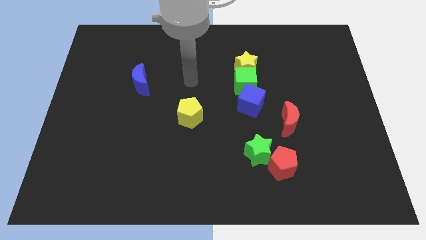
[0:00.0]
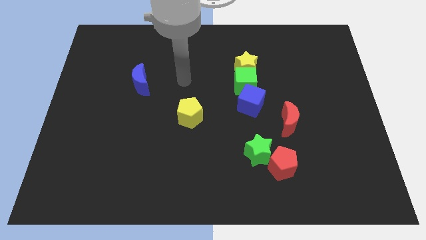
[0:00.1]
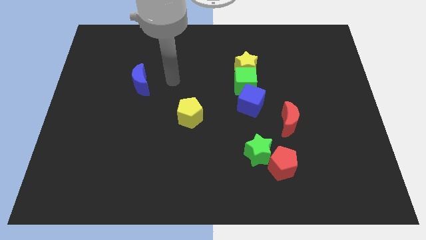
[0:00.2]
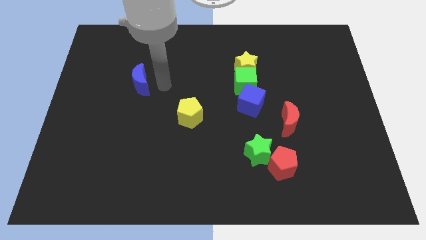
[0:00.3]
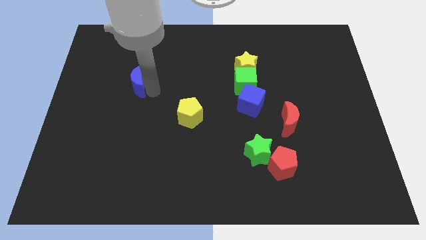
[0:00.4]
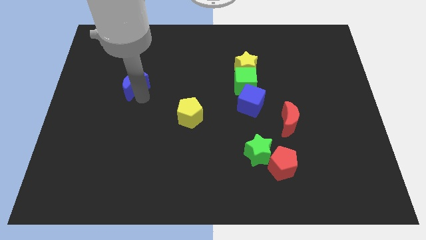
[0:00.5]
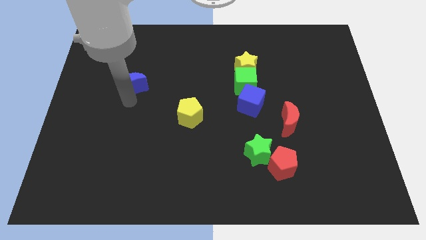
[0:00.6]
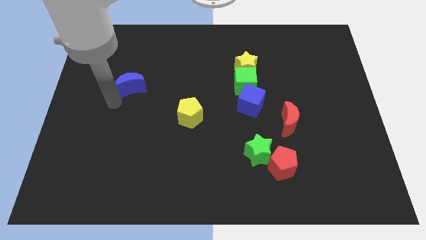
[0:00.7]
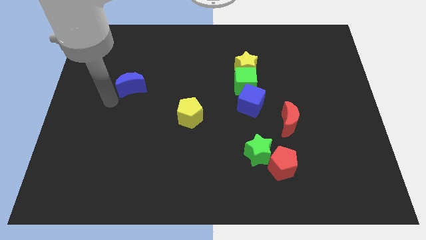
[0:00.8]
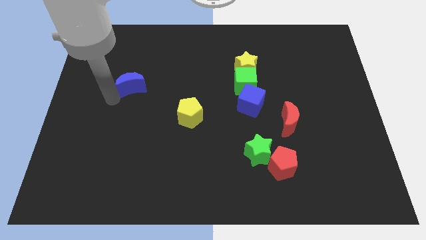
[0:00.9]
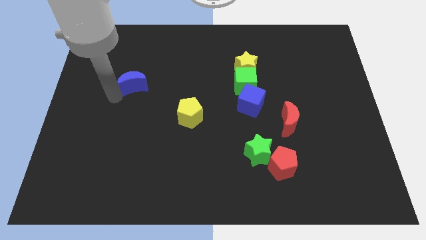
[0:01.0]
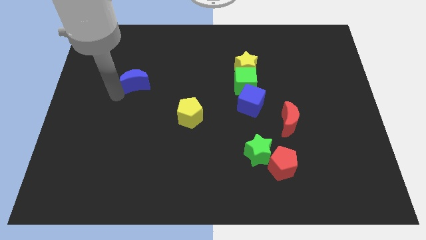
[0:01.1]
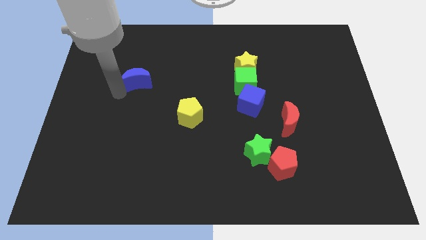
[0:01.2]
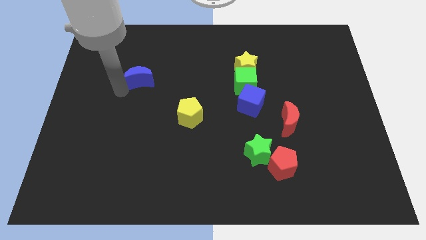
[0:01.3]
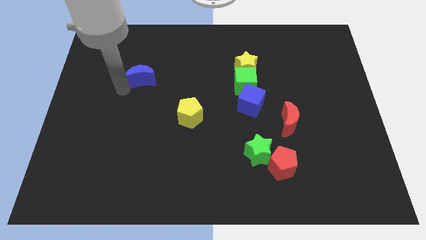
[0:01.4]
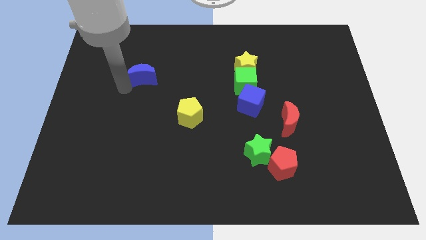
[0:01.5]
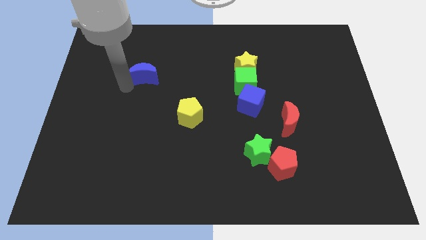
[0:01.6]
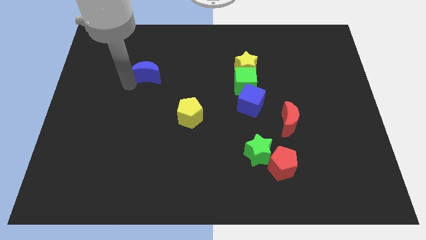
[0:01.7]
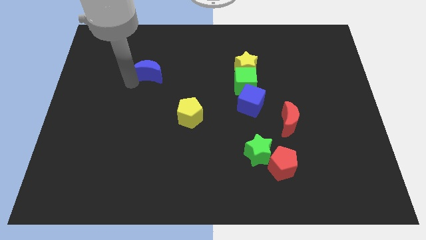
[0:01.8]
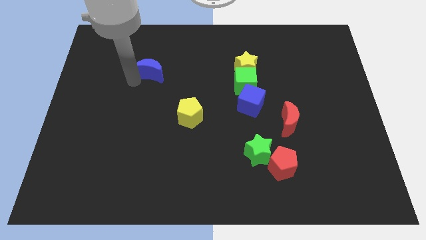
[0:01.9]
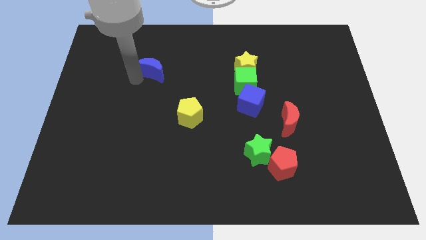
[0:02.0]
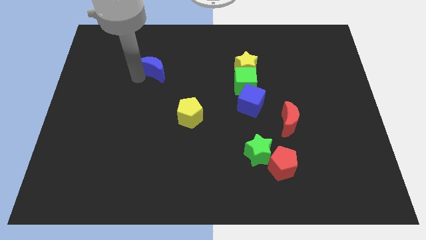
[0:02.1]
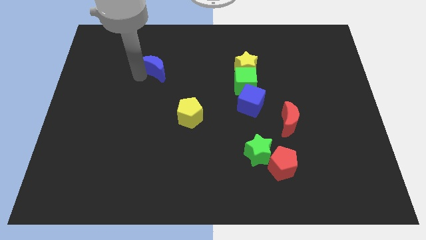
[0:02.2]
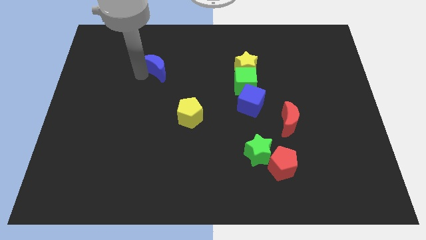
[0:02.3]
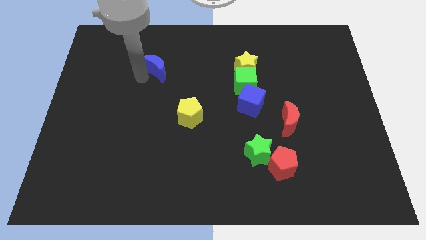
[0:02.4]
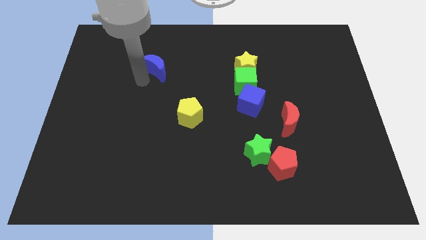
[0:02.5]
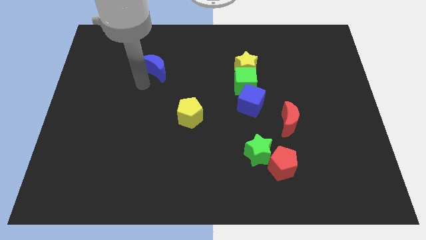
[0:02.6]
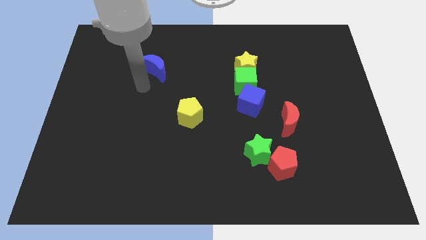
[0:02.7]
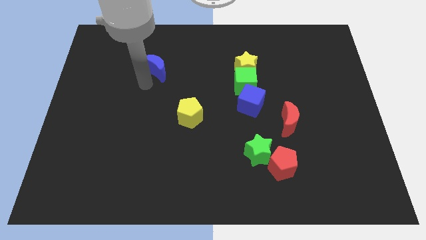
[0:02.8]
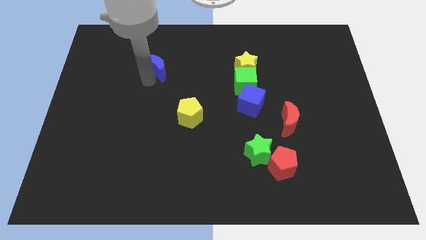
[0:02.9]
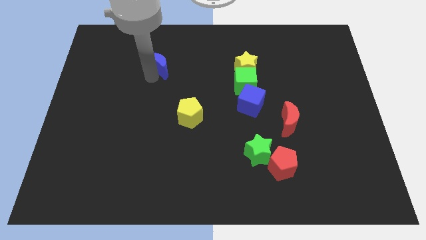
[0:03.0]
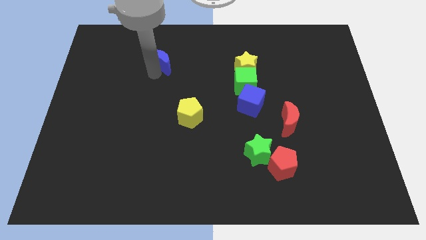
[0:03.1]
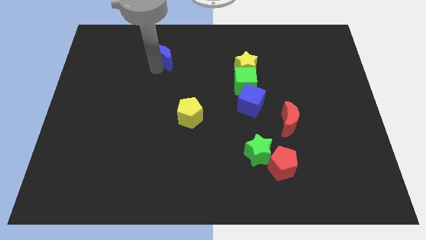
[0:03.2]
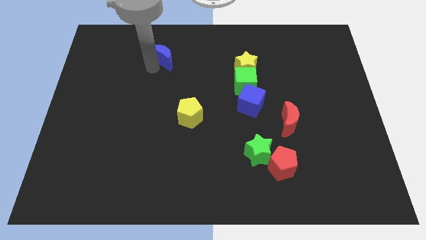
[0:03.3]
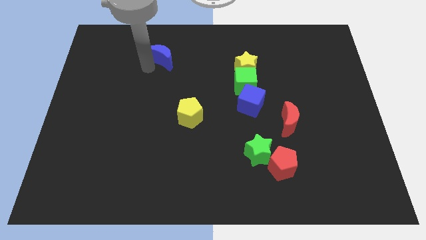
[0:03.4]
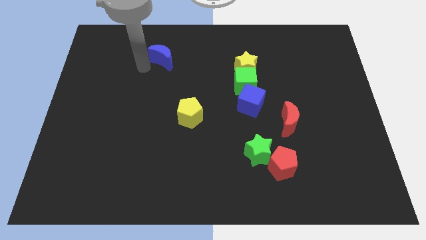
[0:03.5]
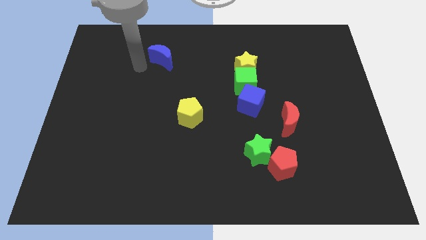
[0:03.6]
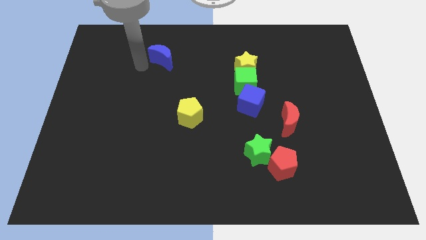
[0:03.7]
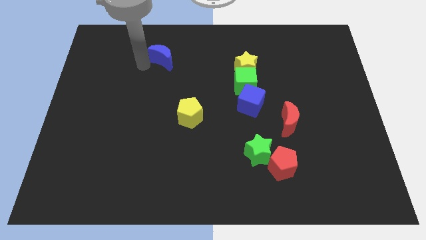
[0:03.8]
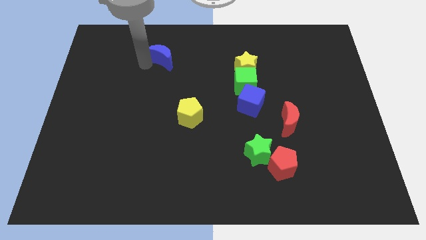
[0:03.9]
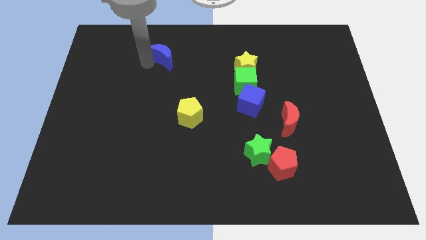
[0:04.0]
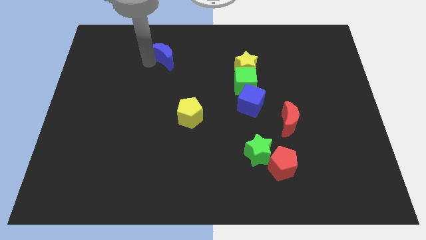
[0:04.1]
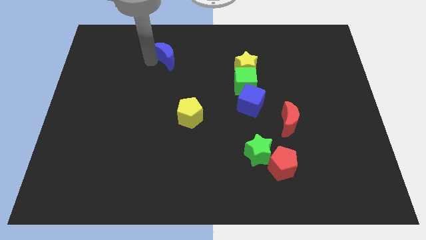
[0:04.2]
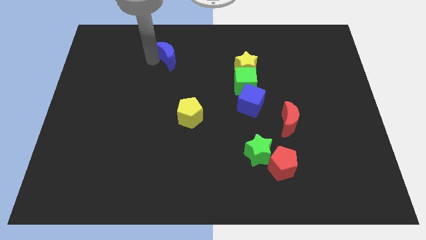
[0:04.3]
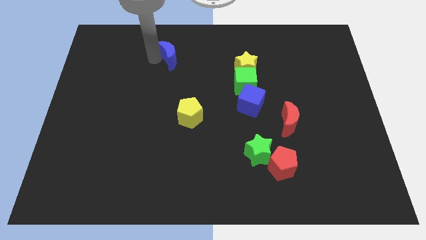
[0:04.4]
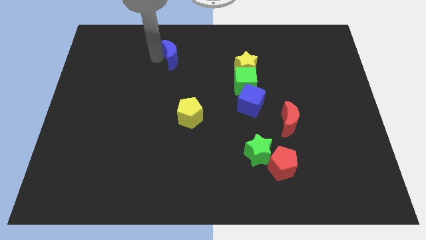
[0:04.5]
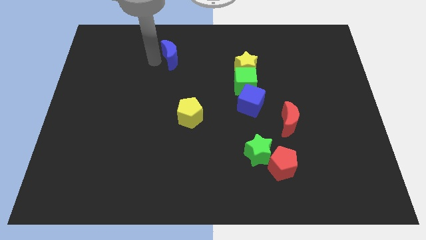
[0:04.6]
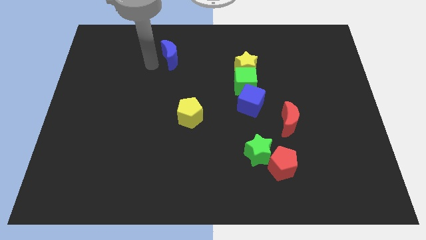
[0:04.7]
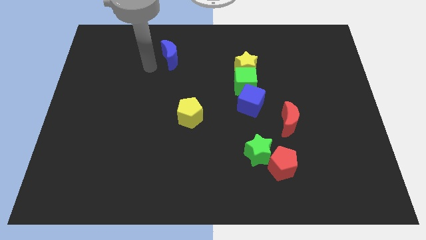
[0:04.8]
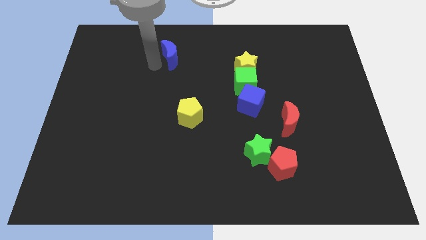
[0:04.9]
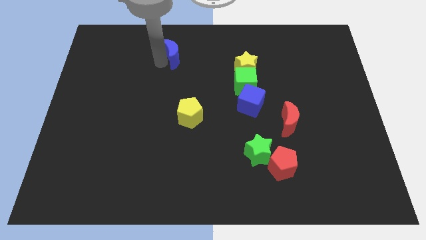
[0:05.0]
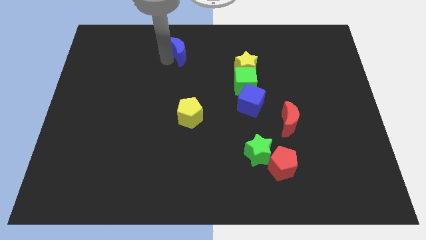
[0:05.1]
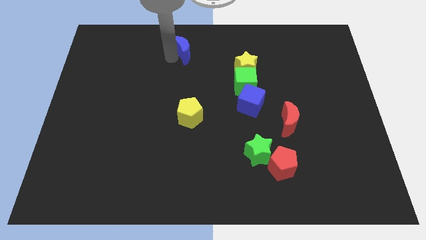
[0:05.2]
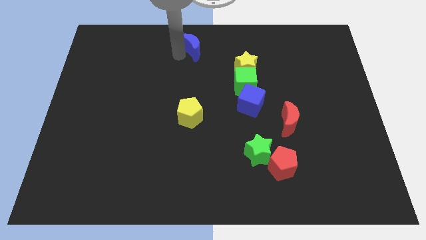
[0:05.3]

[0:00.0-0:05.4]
put the blue moon to the top

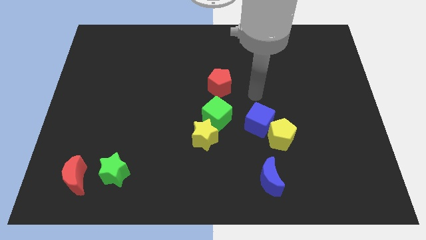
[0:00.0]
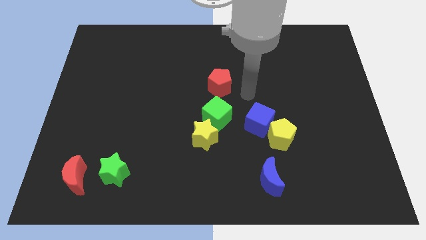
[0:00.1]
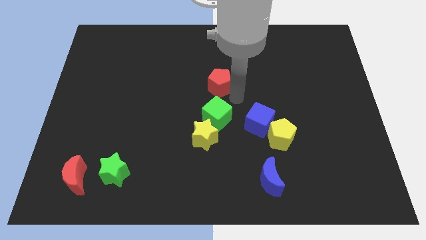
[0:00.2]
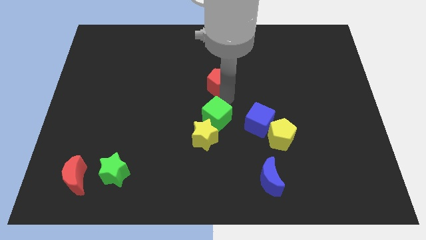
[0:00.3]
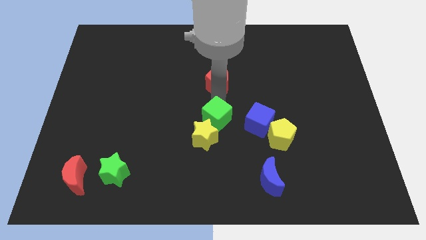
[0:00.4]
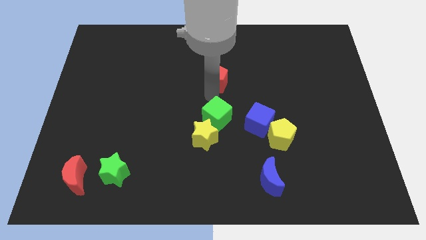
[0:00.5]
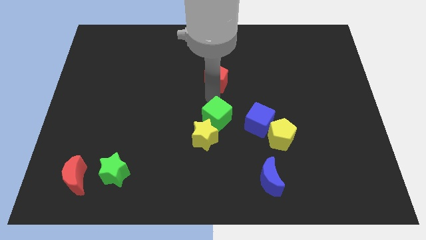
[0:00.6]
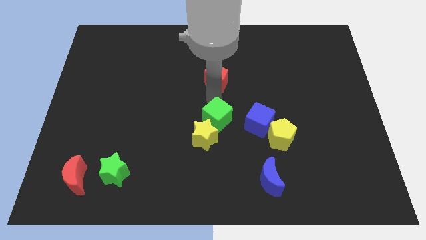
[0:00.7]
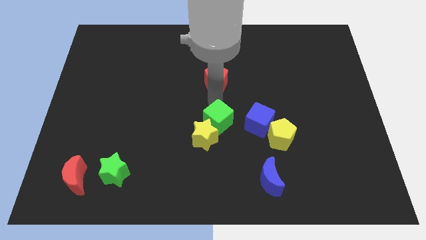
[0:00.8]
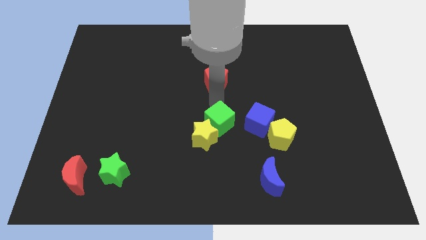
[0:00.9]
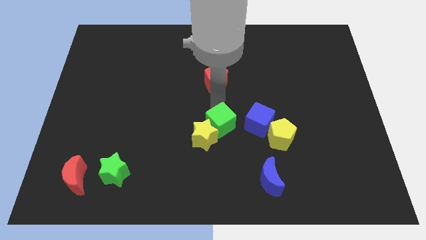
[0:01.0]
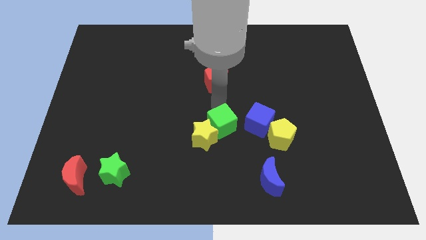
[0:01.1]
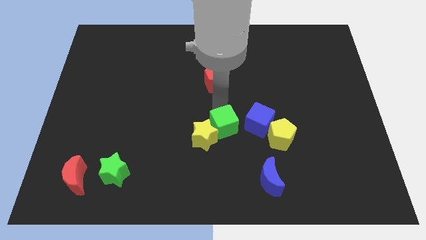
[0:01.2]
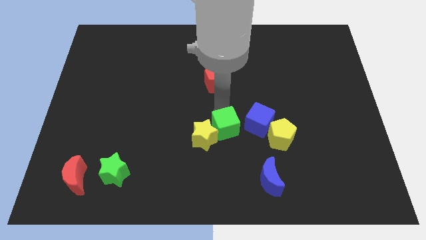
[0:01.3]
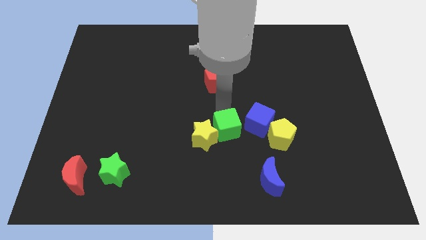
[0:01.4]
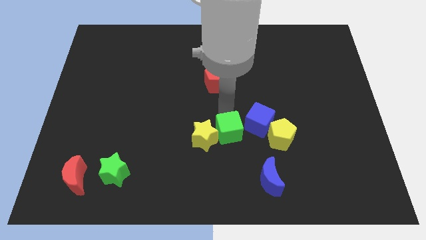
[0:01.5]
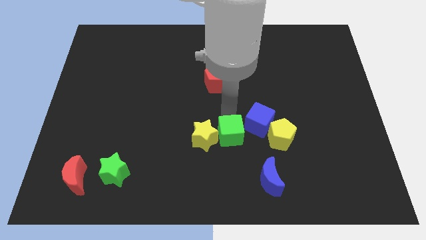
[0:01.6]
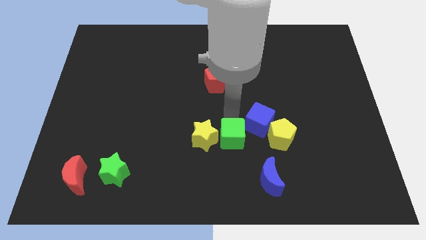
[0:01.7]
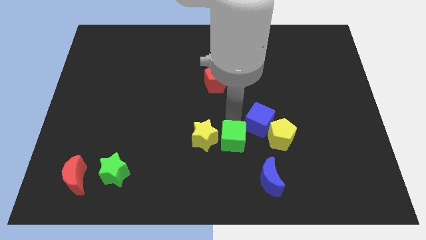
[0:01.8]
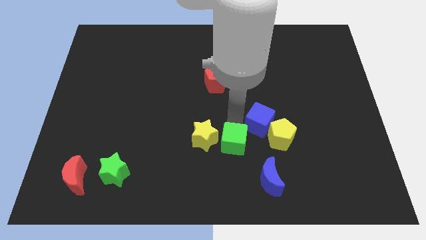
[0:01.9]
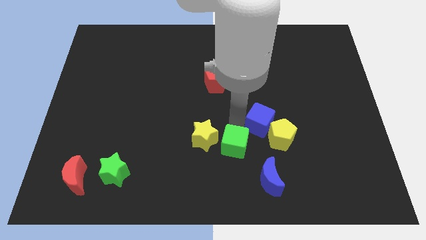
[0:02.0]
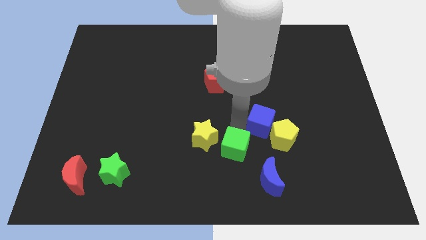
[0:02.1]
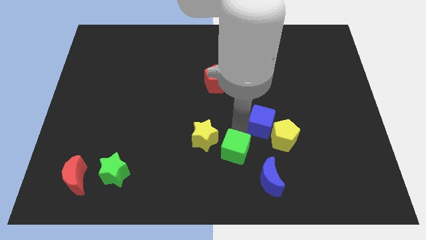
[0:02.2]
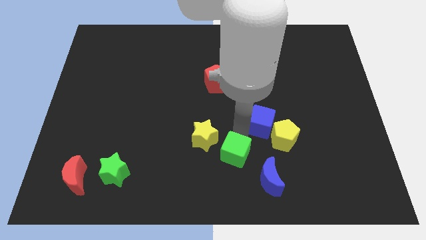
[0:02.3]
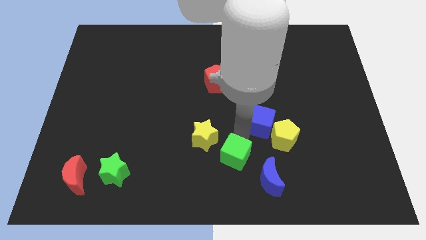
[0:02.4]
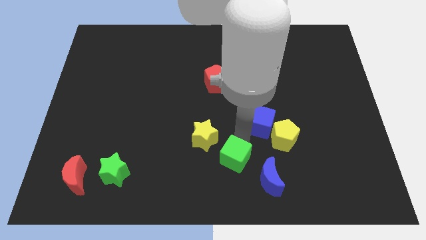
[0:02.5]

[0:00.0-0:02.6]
move the green cube to the bottom side
